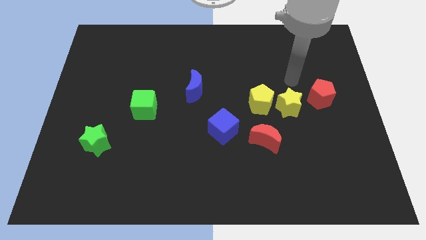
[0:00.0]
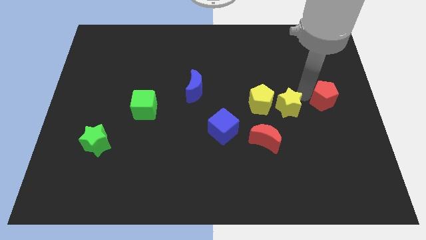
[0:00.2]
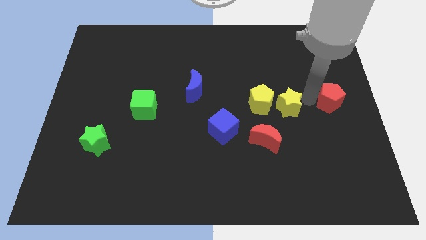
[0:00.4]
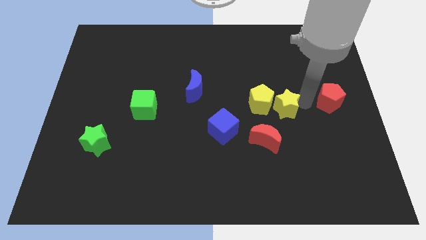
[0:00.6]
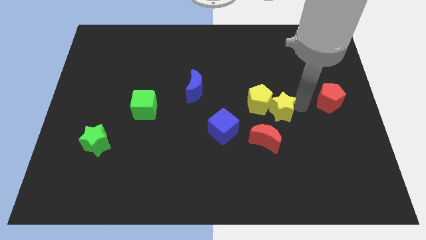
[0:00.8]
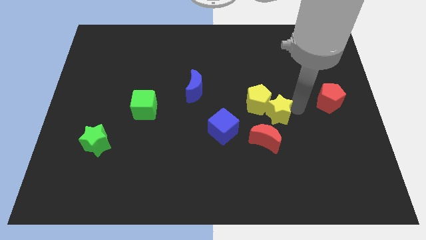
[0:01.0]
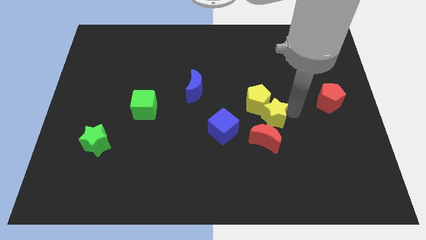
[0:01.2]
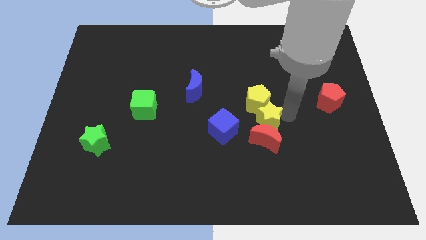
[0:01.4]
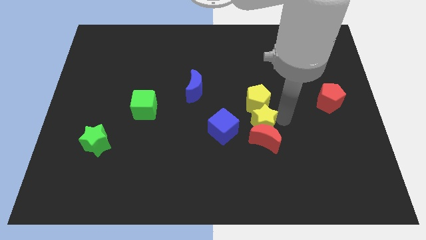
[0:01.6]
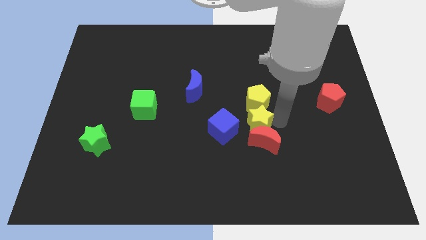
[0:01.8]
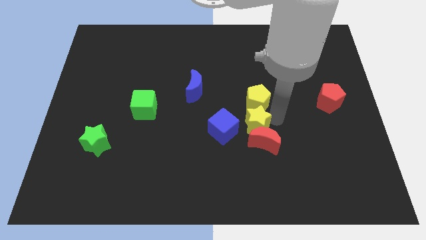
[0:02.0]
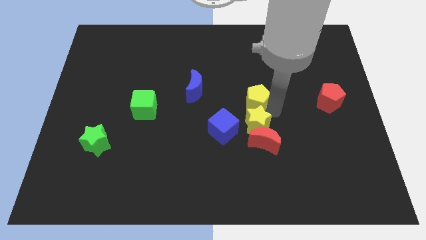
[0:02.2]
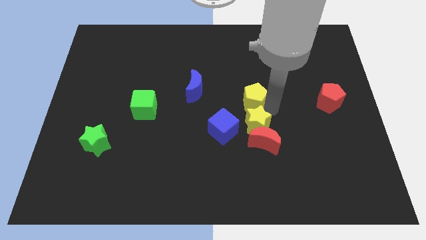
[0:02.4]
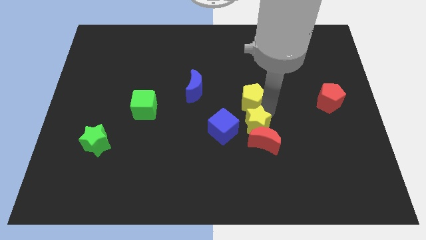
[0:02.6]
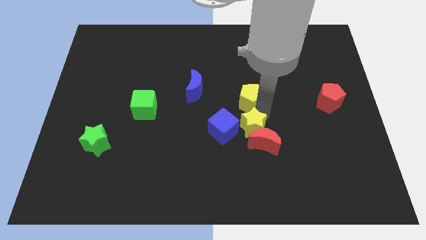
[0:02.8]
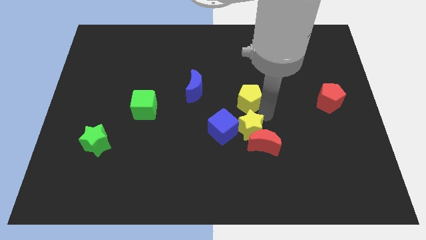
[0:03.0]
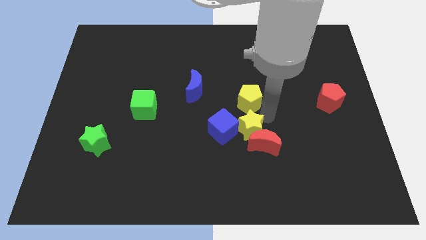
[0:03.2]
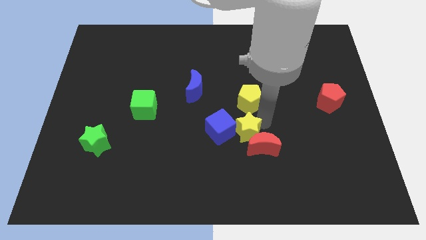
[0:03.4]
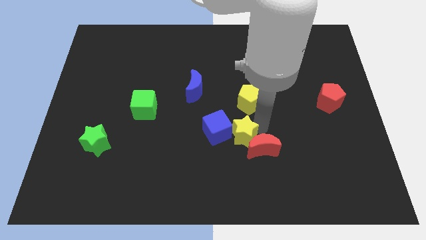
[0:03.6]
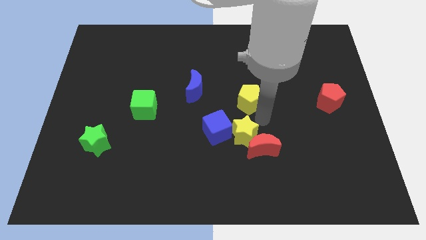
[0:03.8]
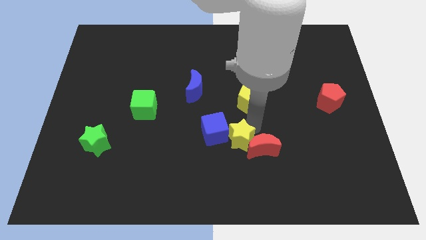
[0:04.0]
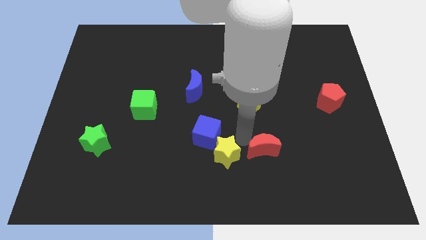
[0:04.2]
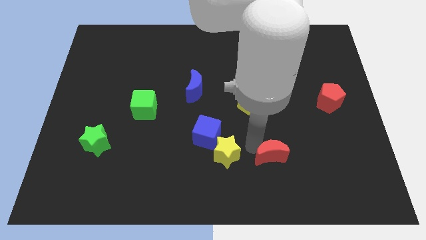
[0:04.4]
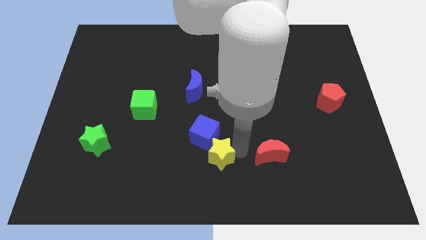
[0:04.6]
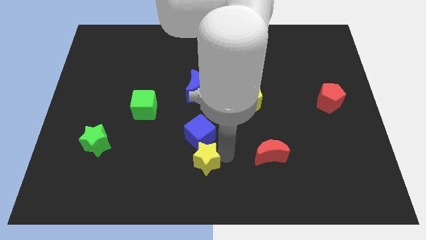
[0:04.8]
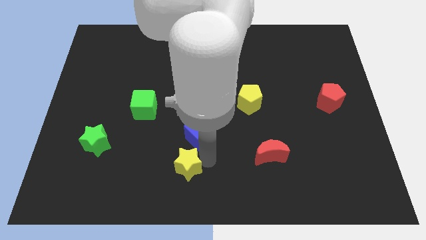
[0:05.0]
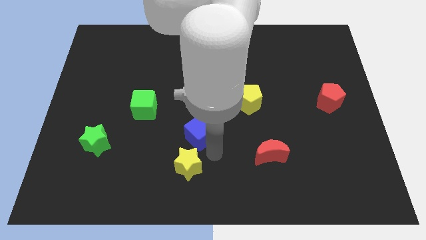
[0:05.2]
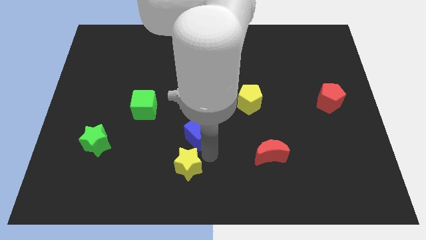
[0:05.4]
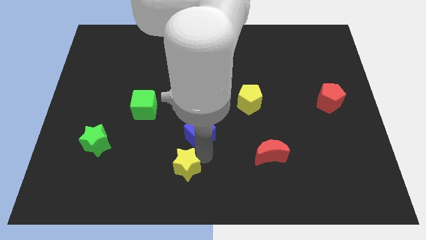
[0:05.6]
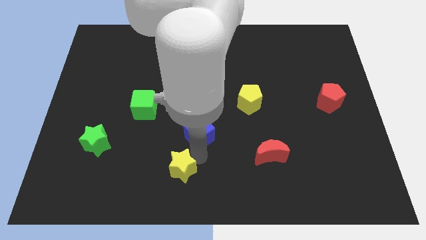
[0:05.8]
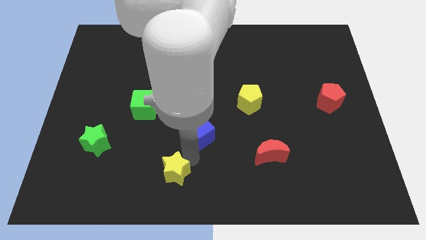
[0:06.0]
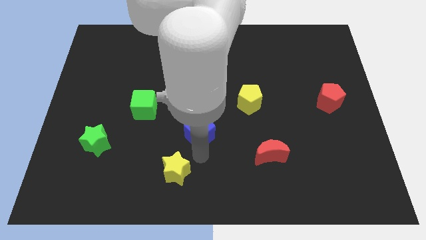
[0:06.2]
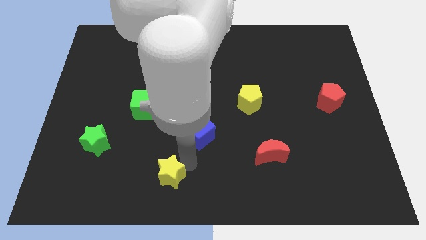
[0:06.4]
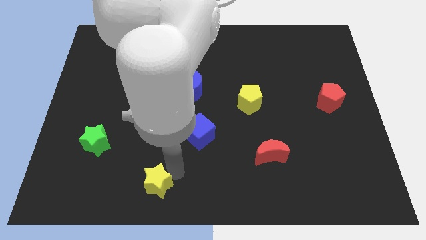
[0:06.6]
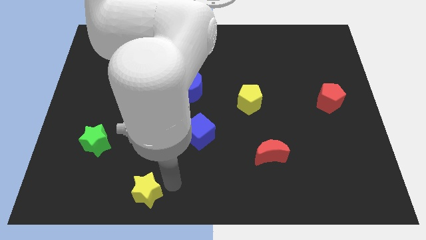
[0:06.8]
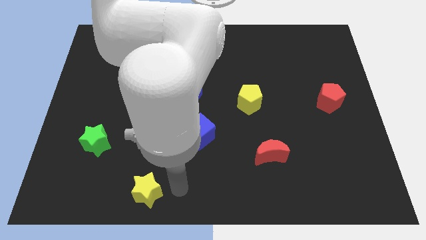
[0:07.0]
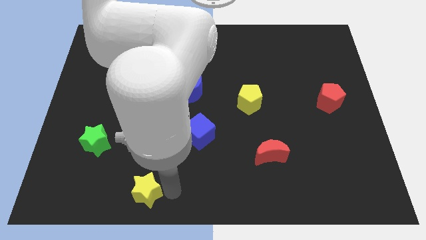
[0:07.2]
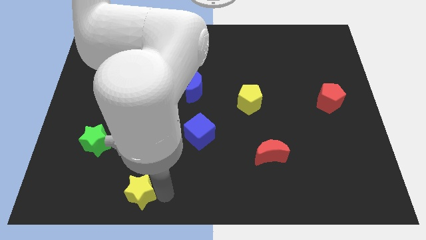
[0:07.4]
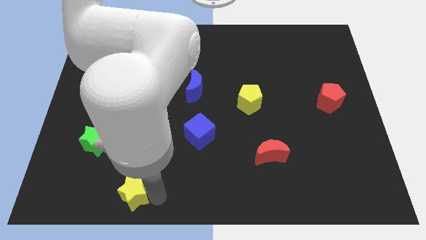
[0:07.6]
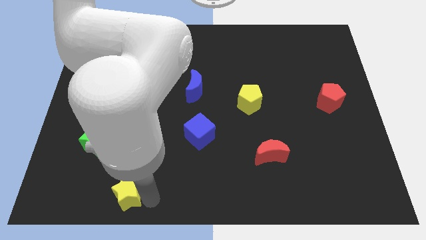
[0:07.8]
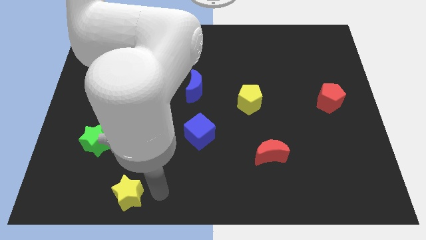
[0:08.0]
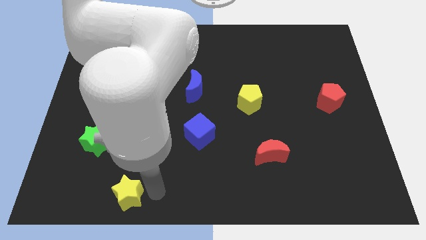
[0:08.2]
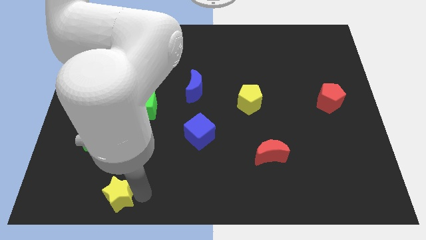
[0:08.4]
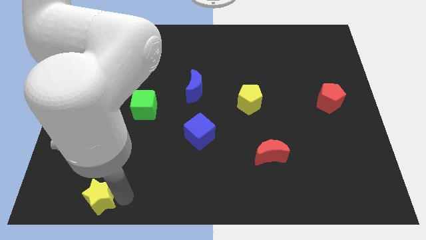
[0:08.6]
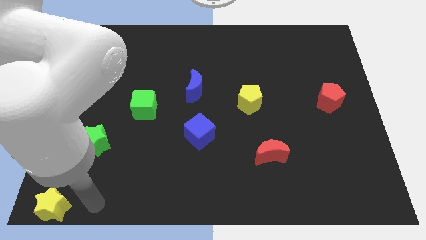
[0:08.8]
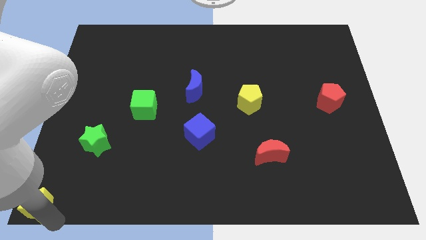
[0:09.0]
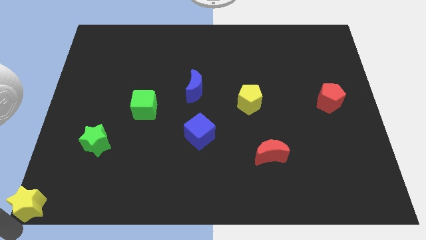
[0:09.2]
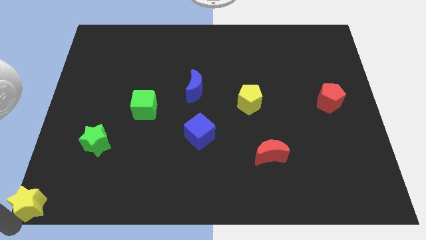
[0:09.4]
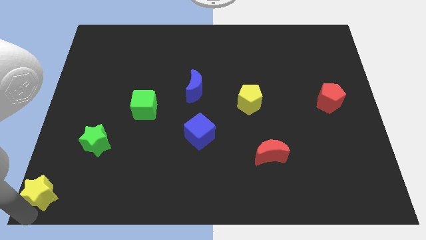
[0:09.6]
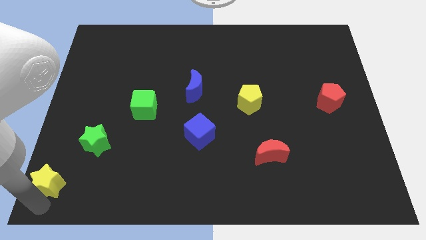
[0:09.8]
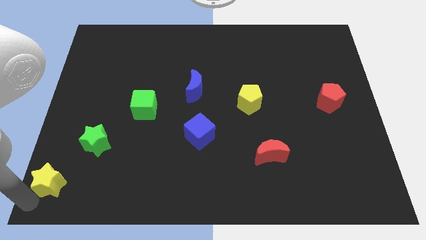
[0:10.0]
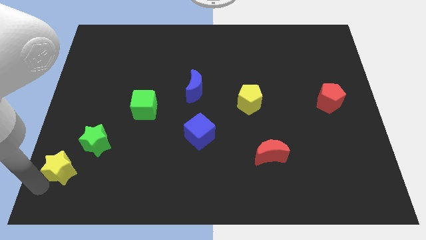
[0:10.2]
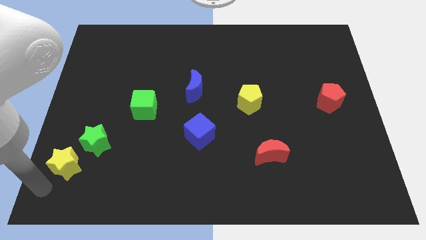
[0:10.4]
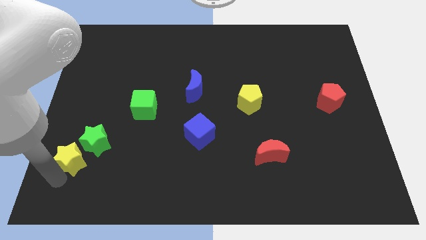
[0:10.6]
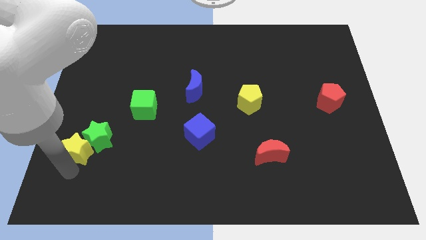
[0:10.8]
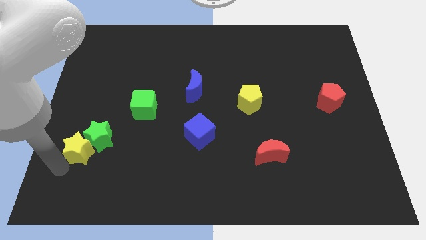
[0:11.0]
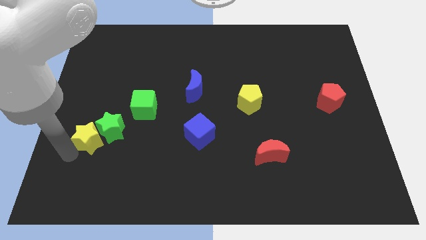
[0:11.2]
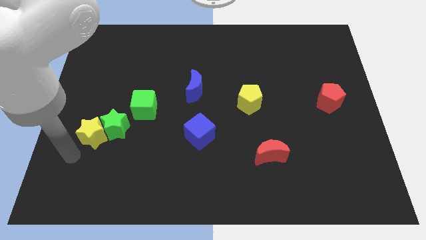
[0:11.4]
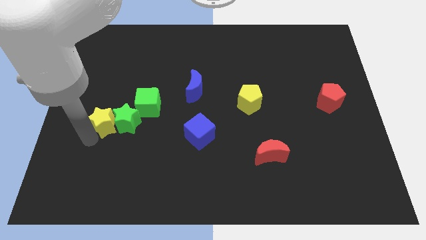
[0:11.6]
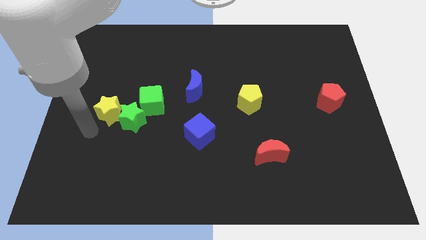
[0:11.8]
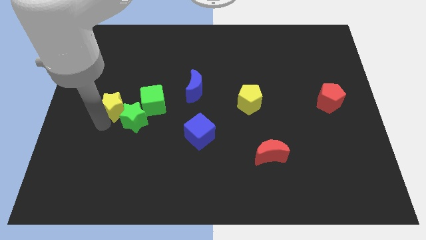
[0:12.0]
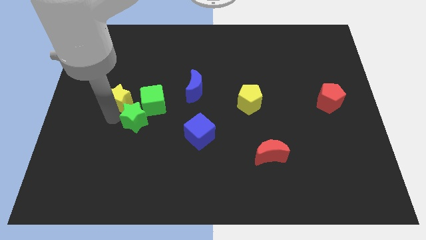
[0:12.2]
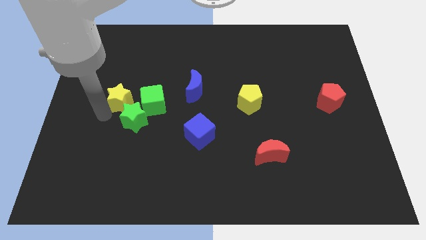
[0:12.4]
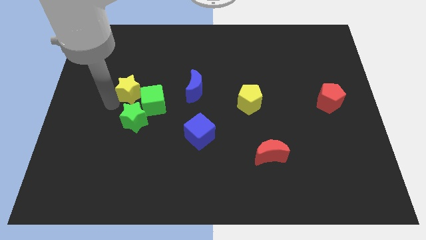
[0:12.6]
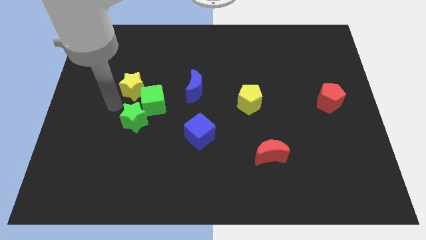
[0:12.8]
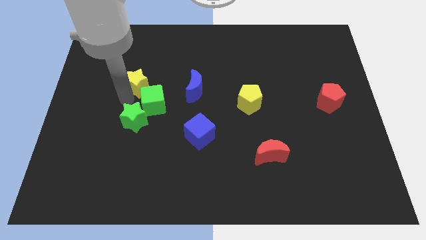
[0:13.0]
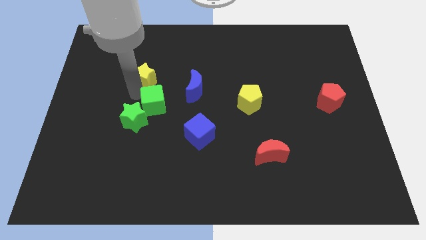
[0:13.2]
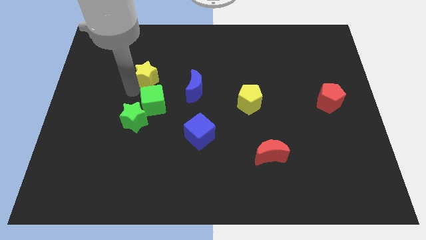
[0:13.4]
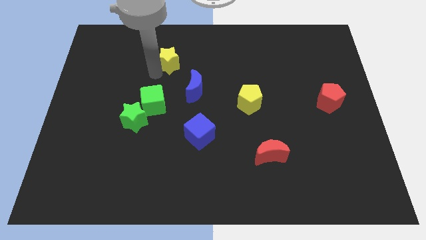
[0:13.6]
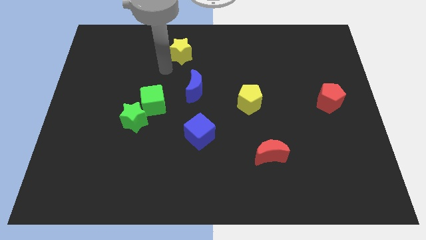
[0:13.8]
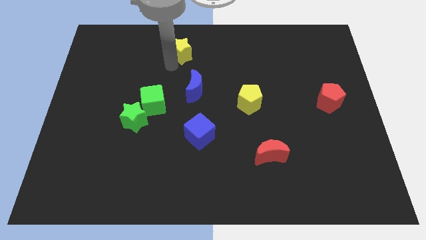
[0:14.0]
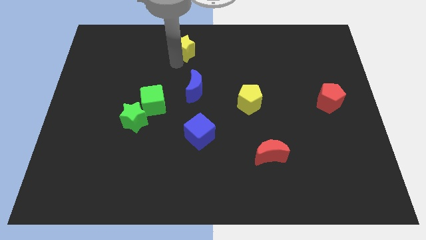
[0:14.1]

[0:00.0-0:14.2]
push the yellow star to the top
